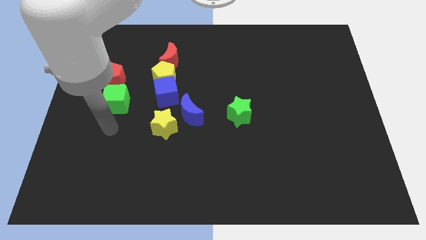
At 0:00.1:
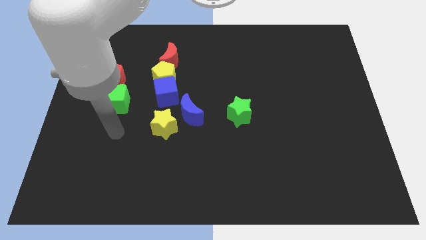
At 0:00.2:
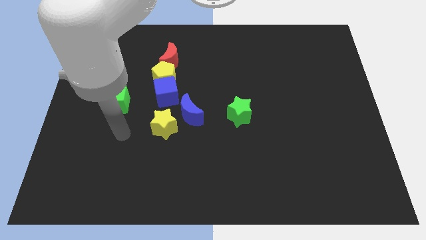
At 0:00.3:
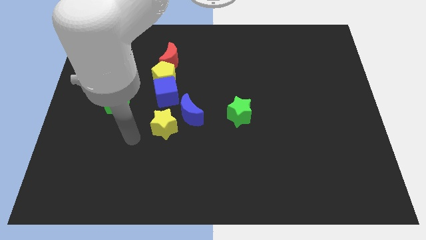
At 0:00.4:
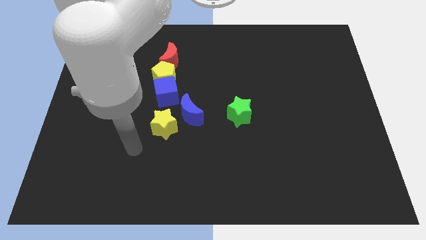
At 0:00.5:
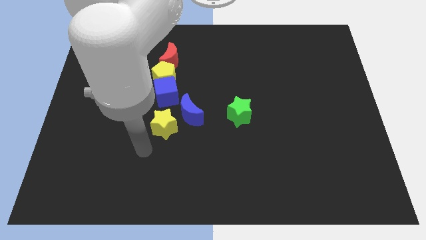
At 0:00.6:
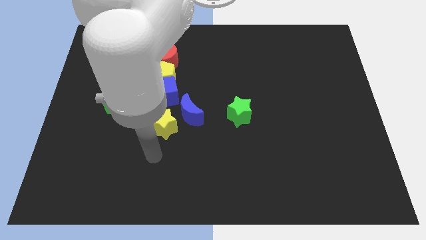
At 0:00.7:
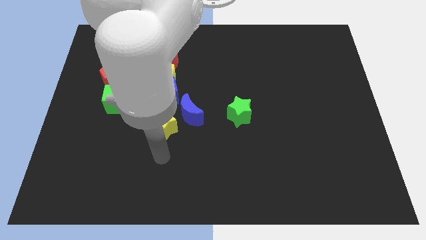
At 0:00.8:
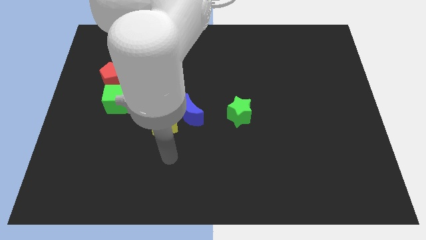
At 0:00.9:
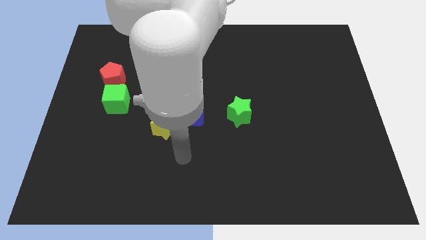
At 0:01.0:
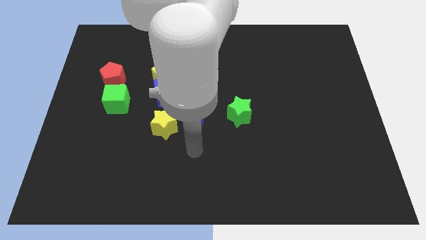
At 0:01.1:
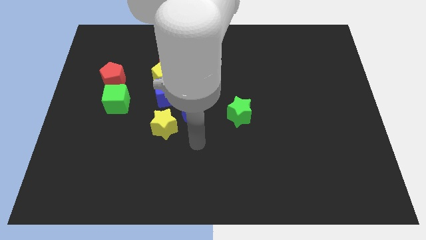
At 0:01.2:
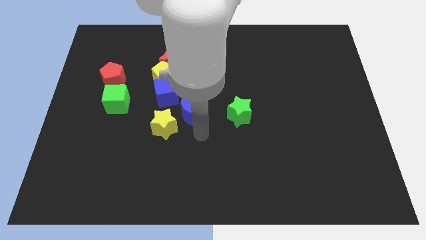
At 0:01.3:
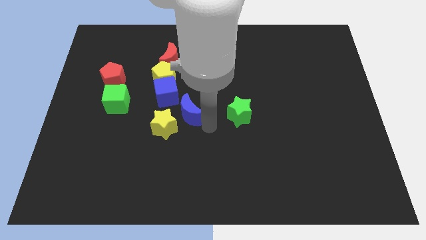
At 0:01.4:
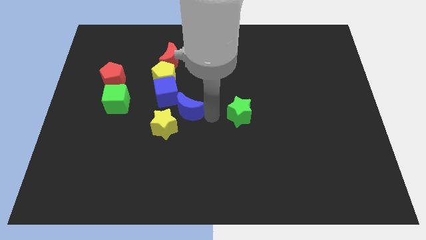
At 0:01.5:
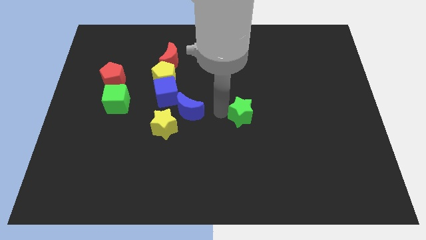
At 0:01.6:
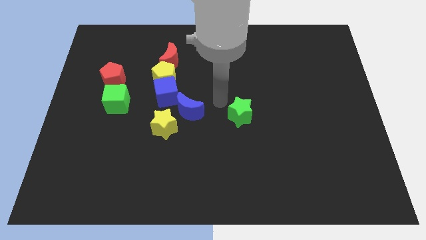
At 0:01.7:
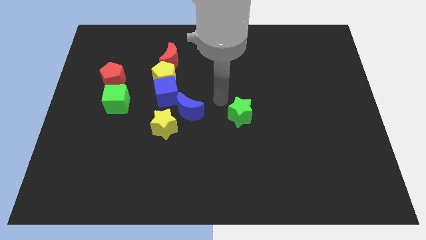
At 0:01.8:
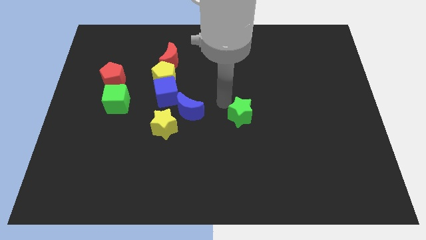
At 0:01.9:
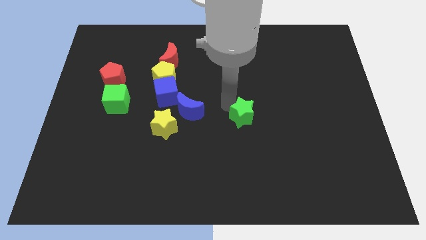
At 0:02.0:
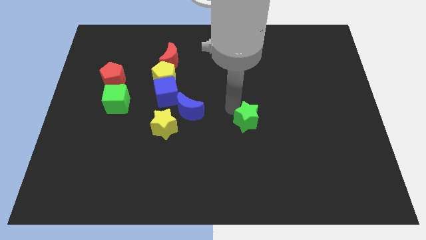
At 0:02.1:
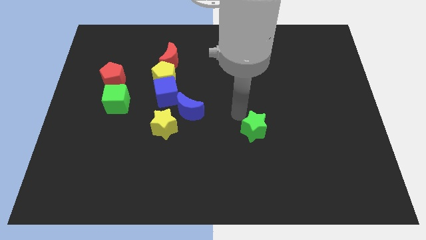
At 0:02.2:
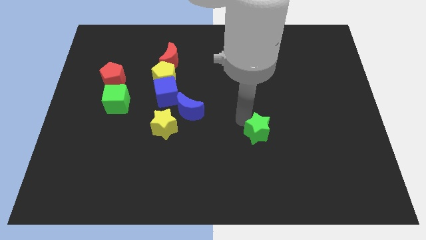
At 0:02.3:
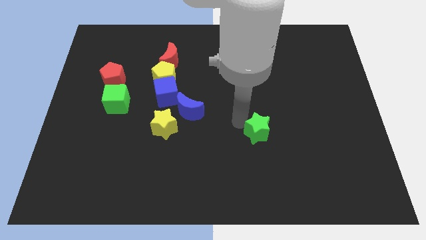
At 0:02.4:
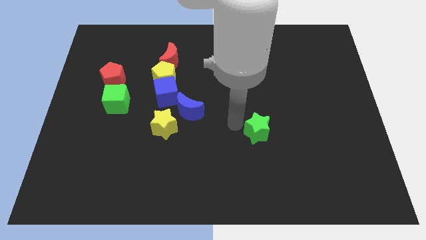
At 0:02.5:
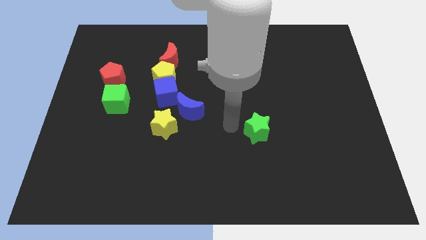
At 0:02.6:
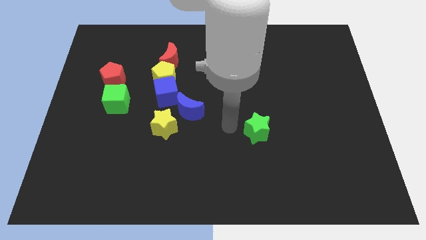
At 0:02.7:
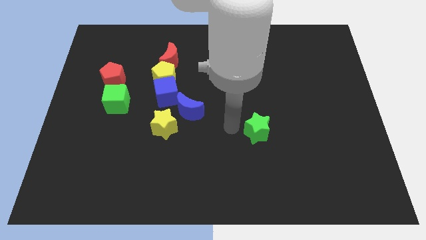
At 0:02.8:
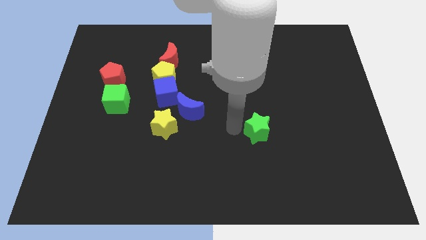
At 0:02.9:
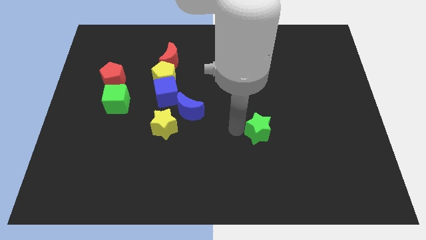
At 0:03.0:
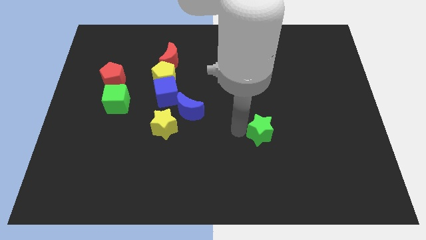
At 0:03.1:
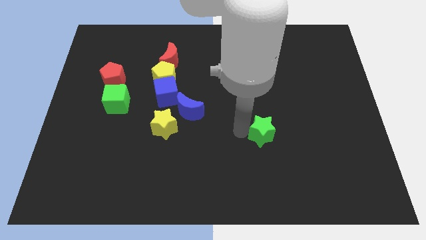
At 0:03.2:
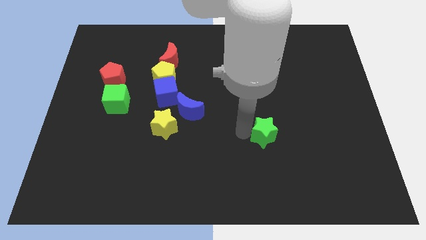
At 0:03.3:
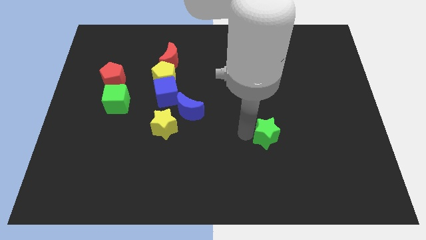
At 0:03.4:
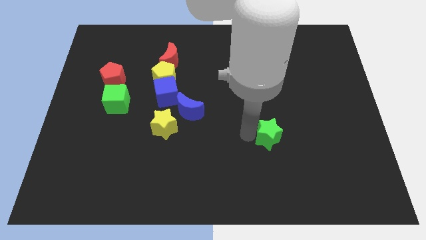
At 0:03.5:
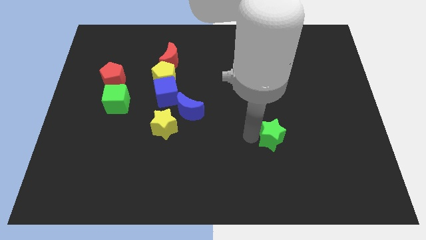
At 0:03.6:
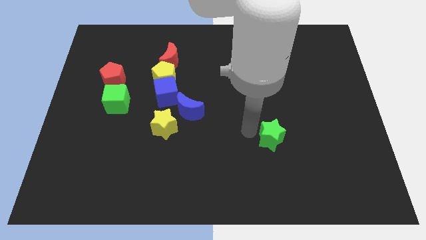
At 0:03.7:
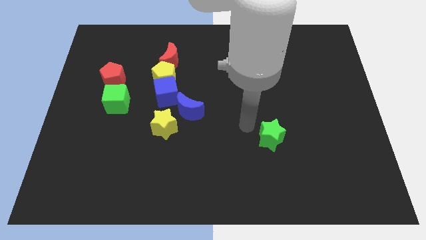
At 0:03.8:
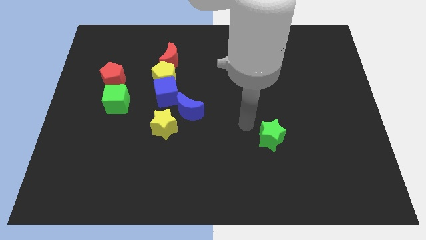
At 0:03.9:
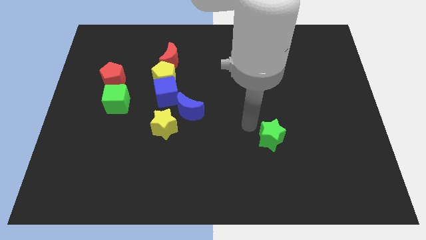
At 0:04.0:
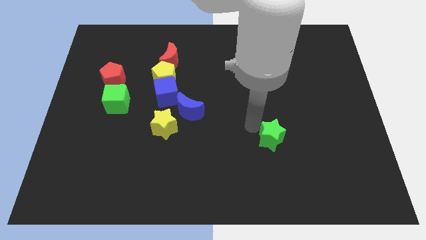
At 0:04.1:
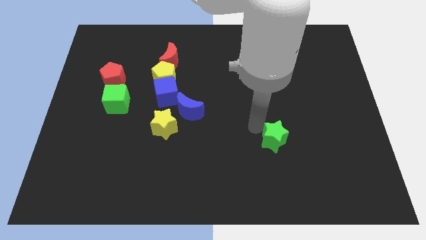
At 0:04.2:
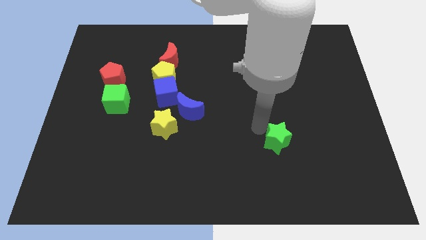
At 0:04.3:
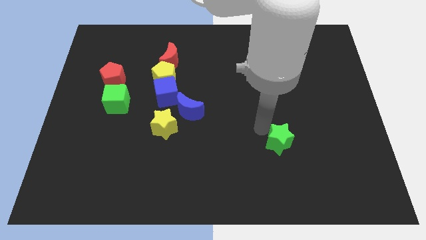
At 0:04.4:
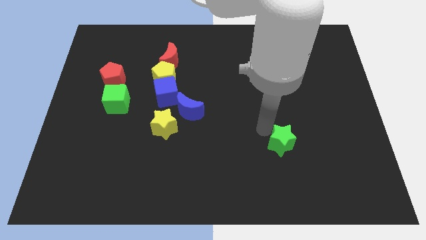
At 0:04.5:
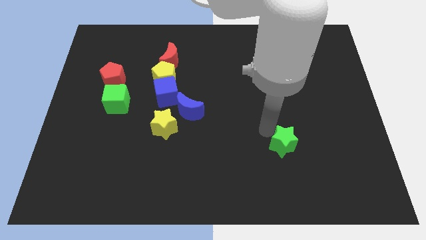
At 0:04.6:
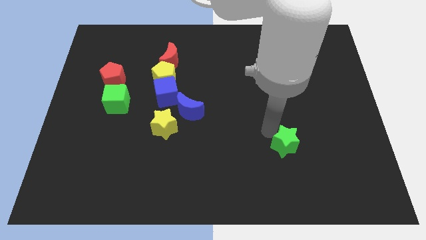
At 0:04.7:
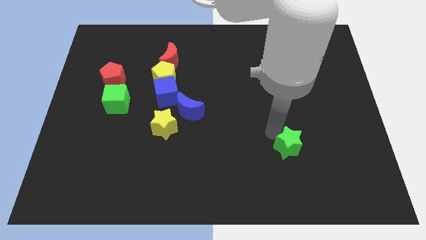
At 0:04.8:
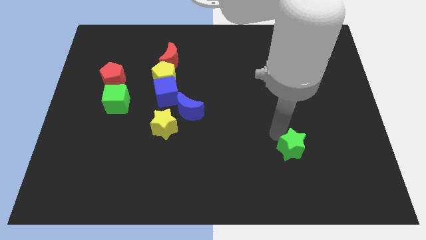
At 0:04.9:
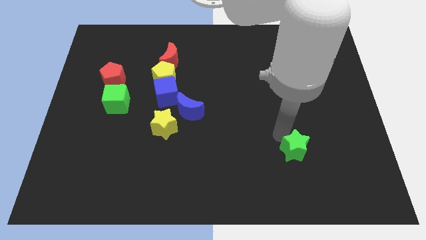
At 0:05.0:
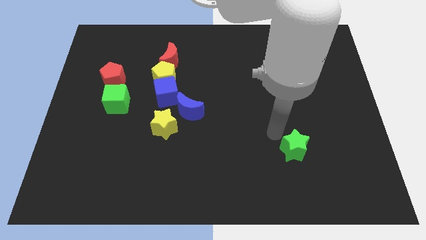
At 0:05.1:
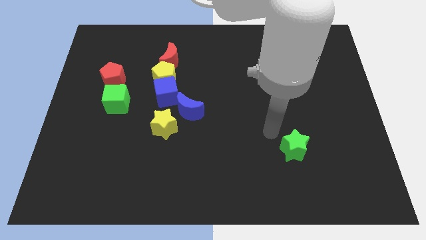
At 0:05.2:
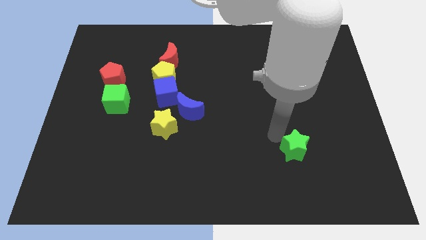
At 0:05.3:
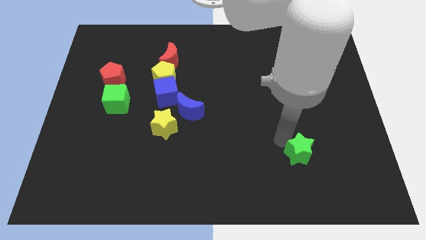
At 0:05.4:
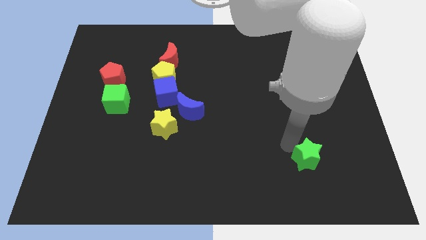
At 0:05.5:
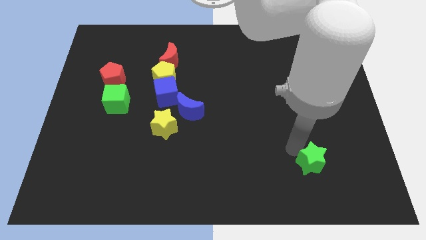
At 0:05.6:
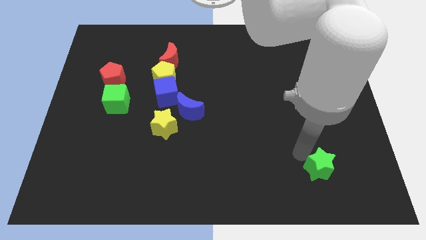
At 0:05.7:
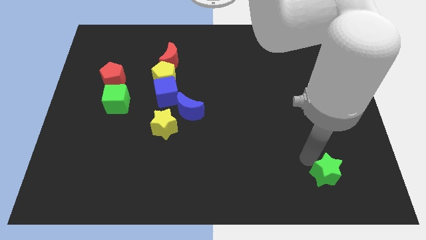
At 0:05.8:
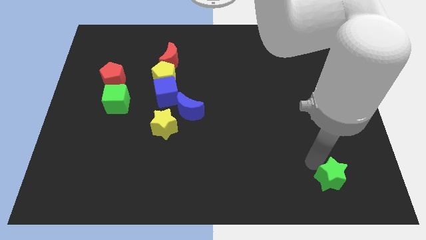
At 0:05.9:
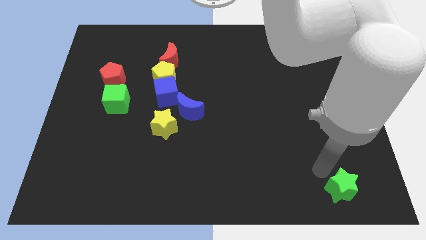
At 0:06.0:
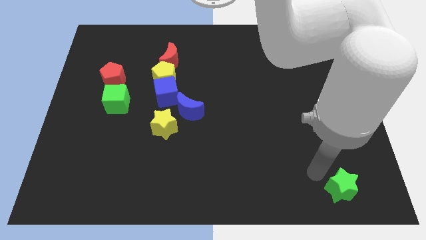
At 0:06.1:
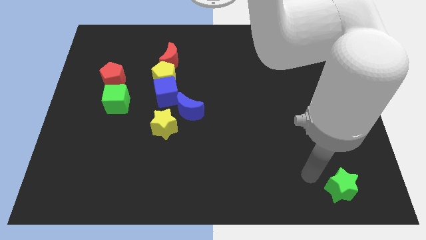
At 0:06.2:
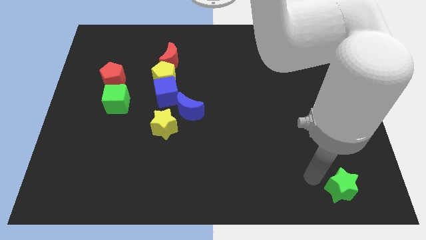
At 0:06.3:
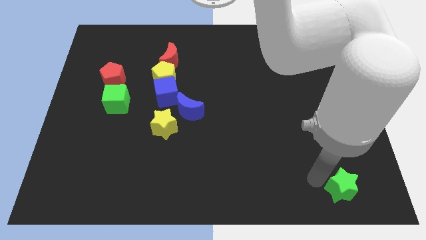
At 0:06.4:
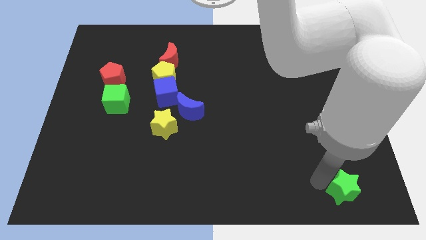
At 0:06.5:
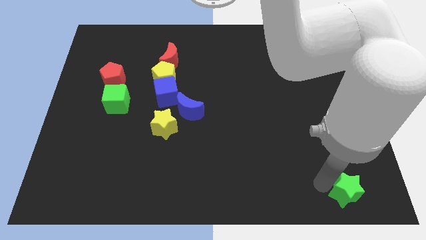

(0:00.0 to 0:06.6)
move the green star to the bottom right corner
